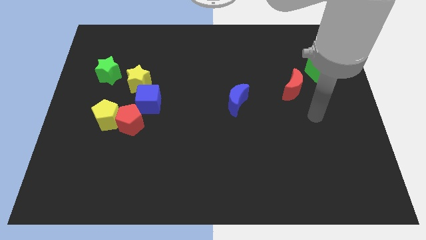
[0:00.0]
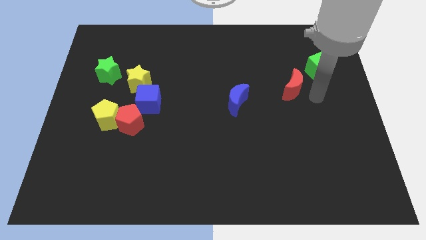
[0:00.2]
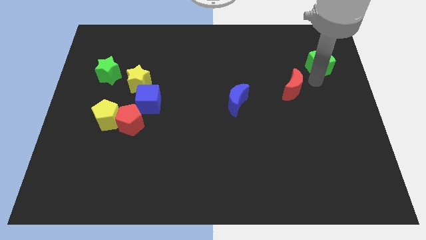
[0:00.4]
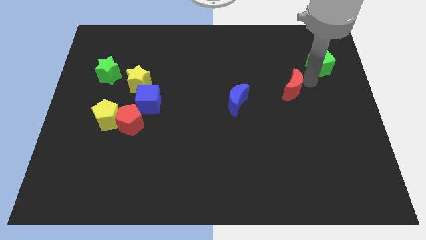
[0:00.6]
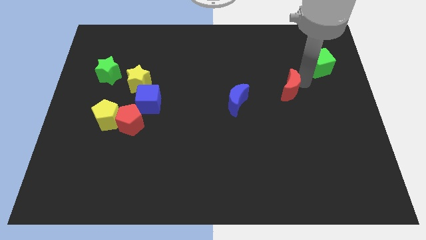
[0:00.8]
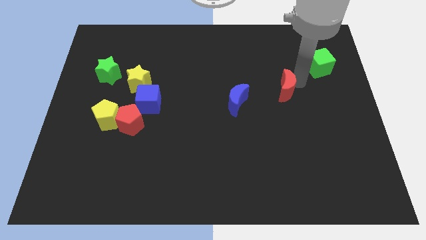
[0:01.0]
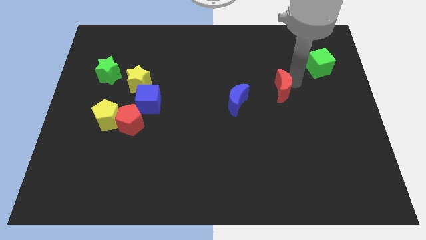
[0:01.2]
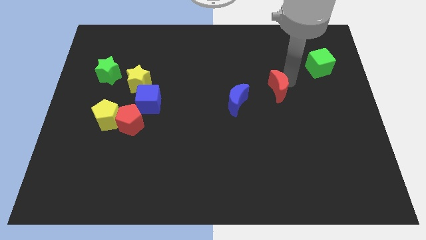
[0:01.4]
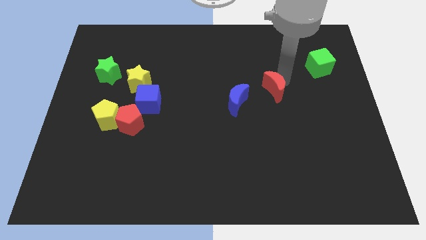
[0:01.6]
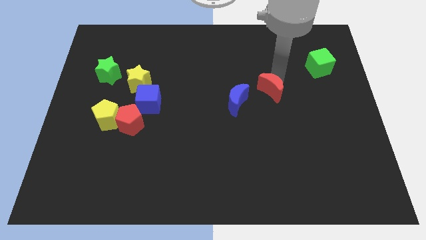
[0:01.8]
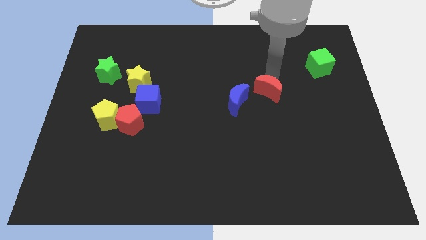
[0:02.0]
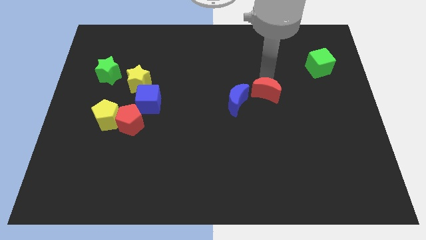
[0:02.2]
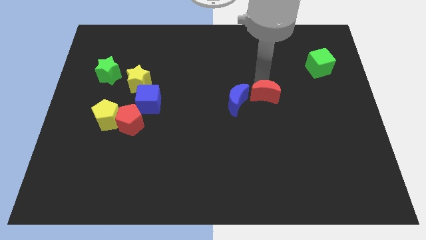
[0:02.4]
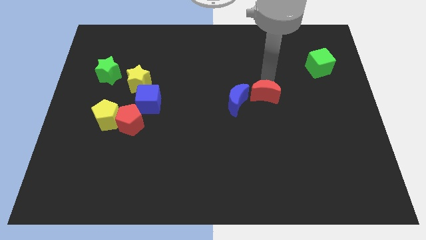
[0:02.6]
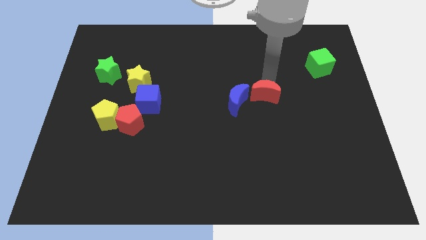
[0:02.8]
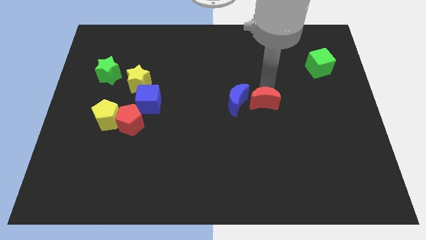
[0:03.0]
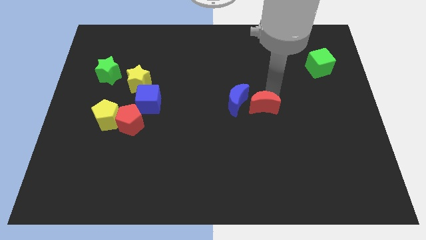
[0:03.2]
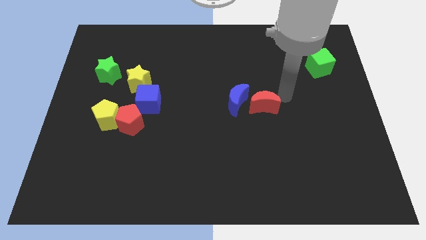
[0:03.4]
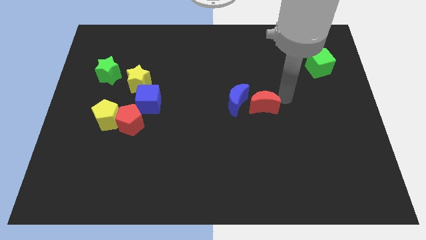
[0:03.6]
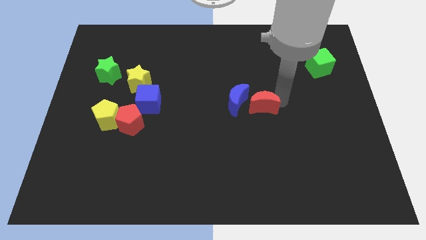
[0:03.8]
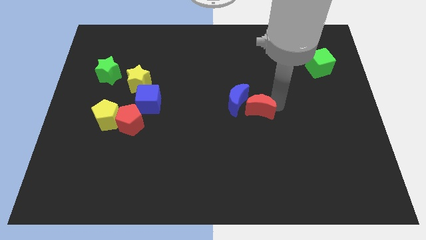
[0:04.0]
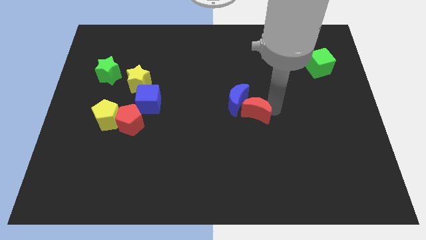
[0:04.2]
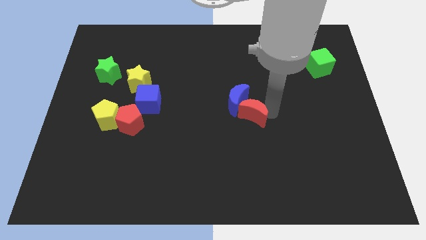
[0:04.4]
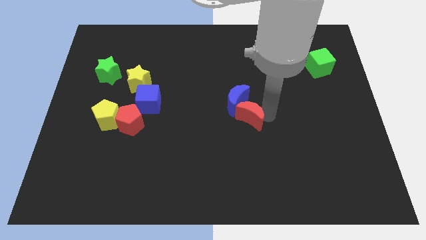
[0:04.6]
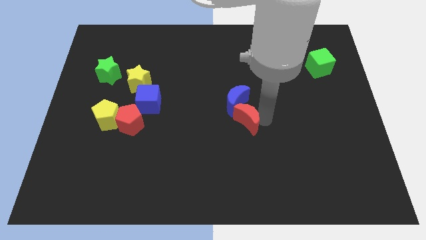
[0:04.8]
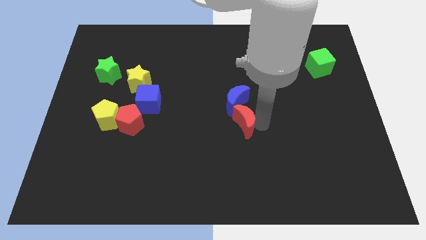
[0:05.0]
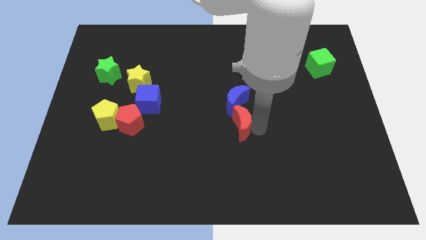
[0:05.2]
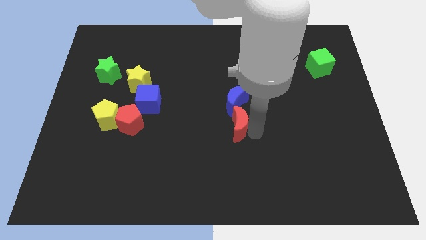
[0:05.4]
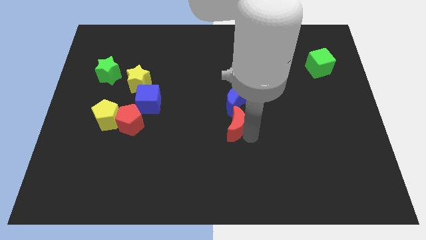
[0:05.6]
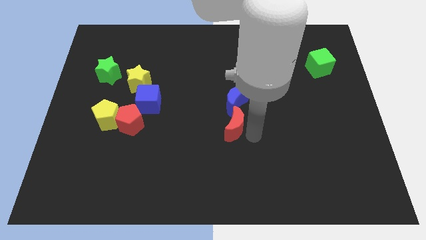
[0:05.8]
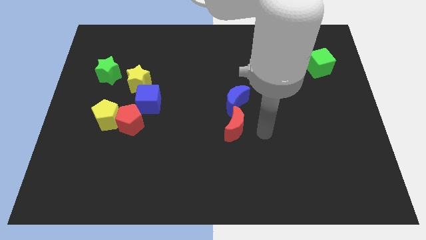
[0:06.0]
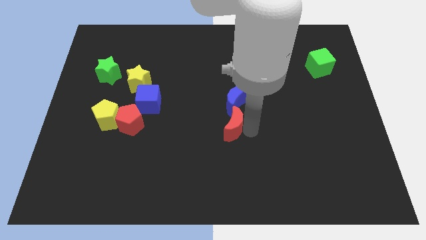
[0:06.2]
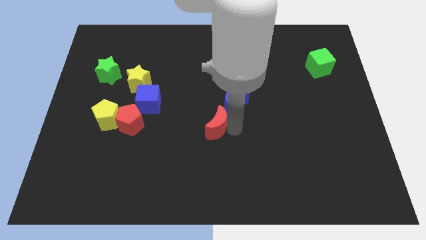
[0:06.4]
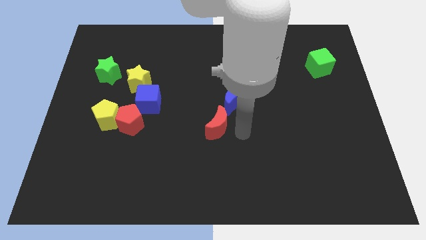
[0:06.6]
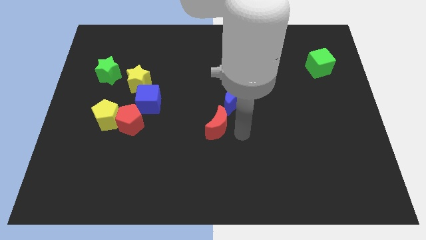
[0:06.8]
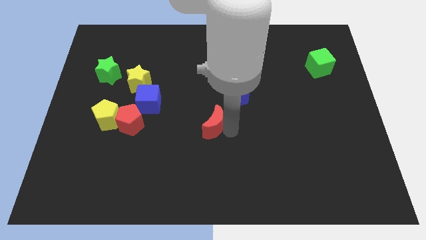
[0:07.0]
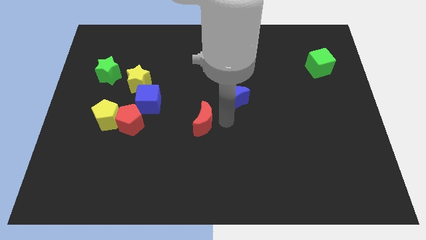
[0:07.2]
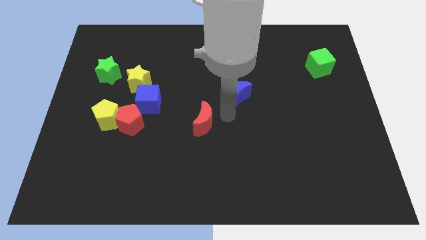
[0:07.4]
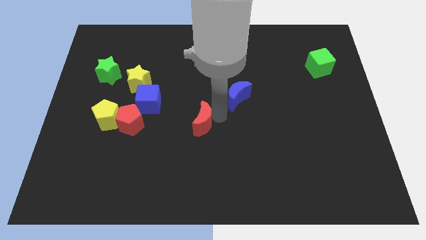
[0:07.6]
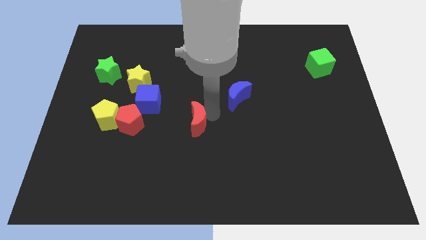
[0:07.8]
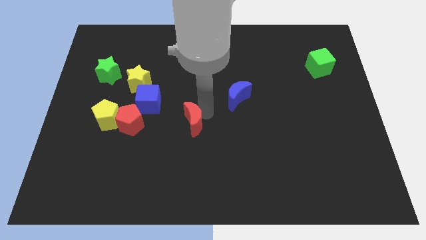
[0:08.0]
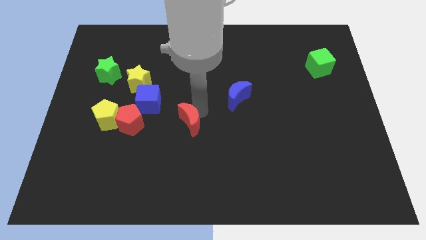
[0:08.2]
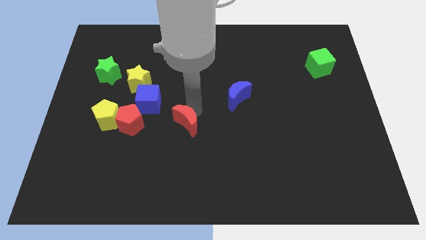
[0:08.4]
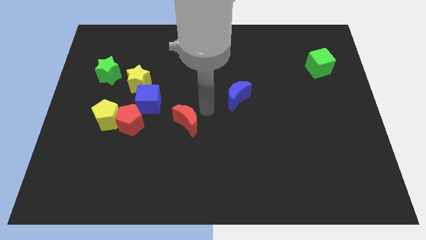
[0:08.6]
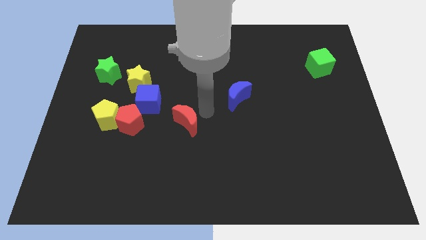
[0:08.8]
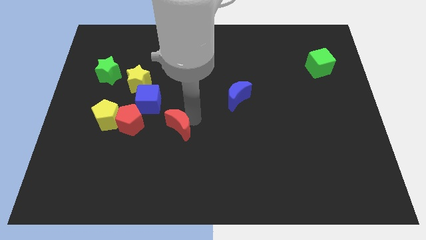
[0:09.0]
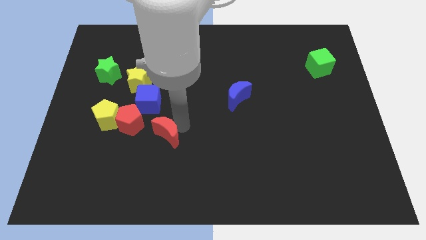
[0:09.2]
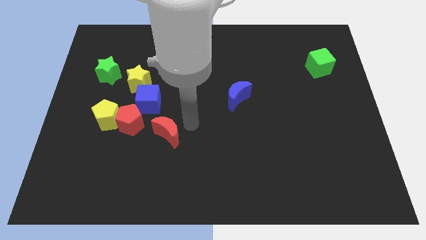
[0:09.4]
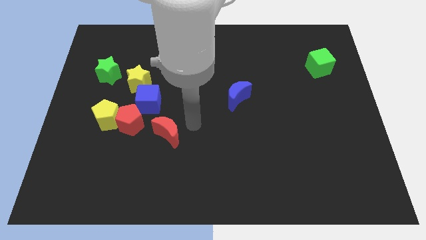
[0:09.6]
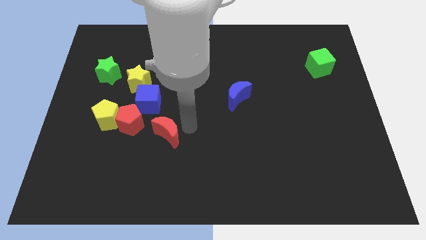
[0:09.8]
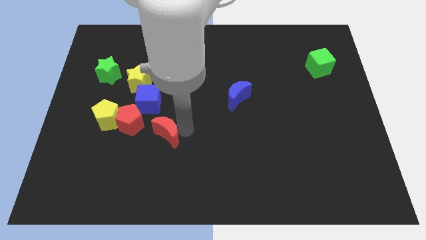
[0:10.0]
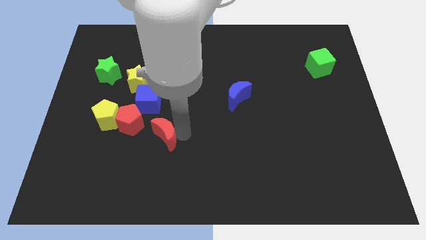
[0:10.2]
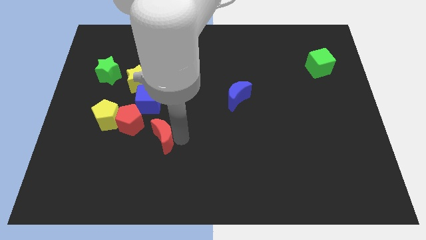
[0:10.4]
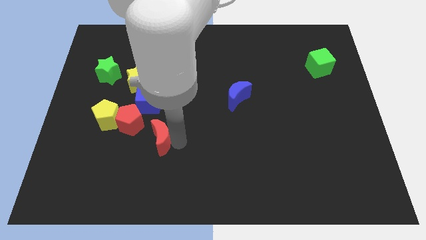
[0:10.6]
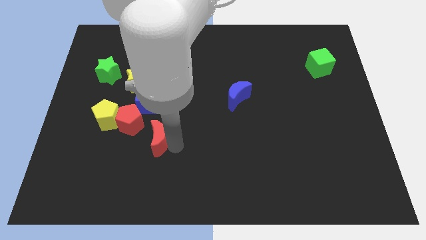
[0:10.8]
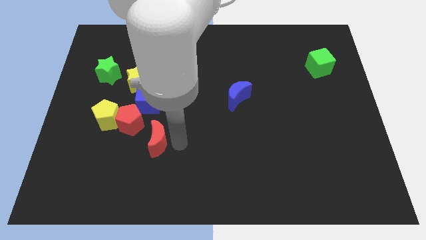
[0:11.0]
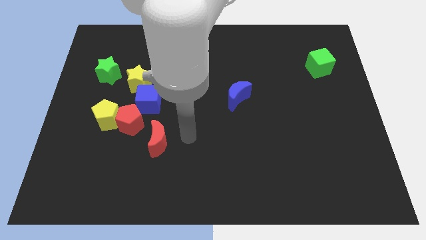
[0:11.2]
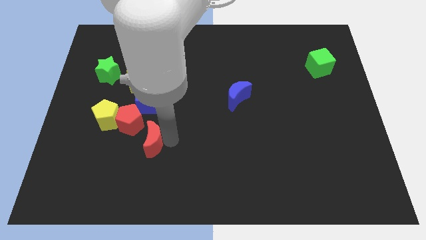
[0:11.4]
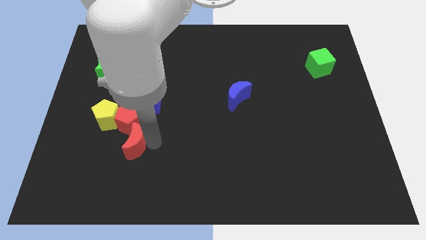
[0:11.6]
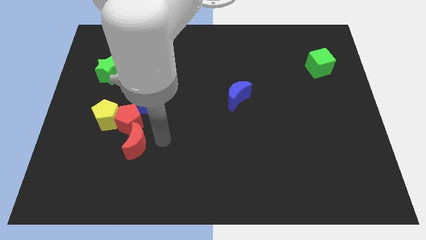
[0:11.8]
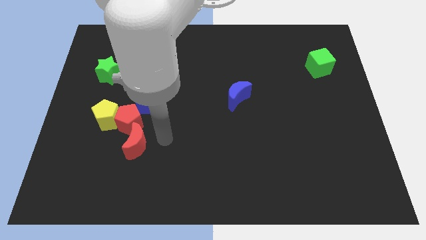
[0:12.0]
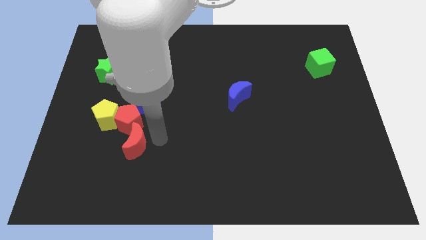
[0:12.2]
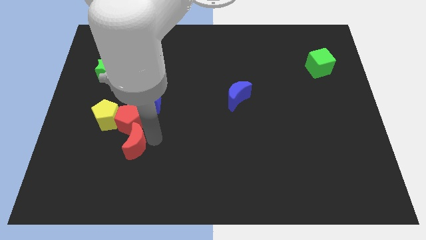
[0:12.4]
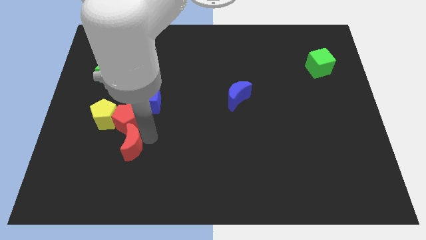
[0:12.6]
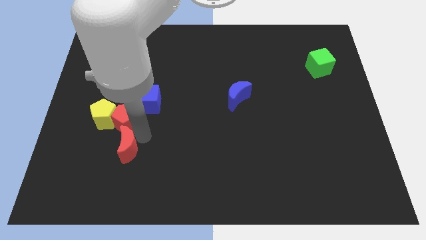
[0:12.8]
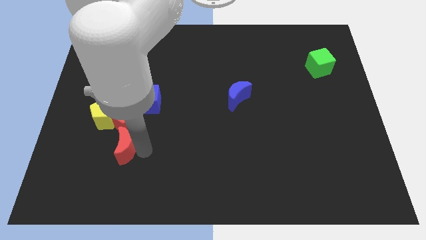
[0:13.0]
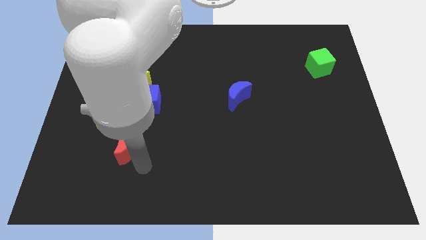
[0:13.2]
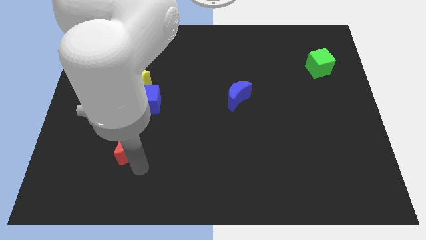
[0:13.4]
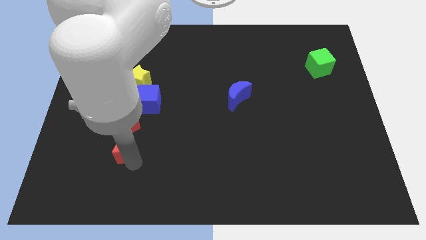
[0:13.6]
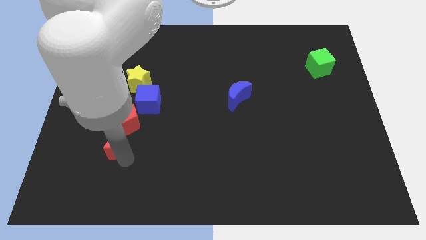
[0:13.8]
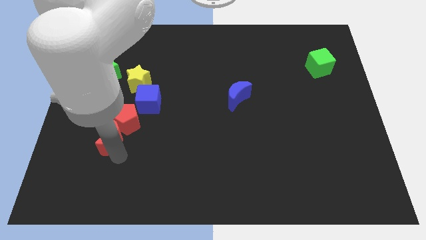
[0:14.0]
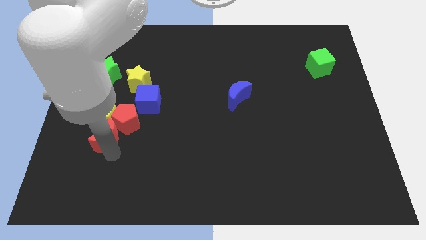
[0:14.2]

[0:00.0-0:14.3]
put the red moon towards the yellow pentagon
